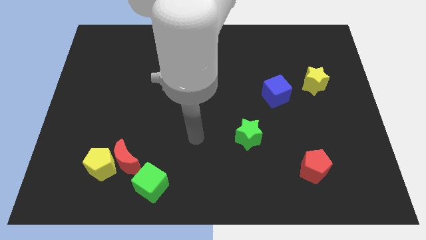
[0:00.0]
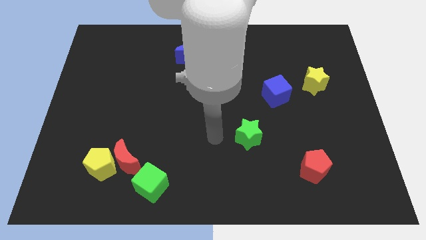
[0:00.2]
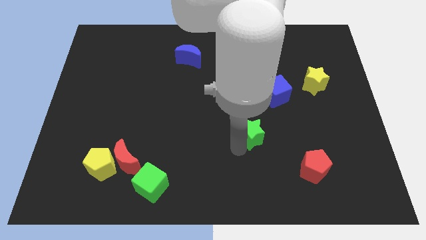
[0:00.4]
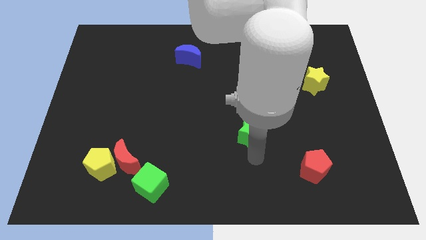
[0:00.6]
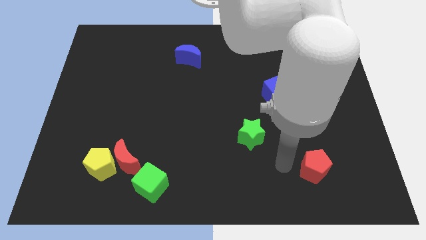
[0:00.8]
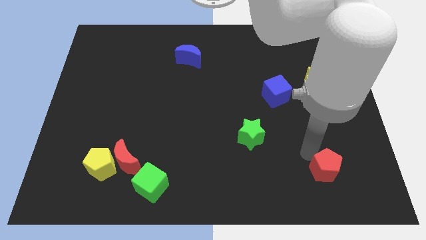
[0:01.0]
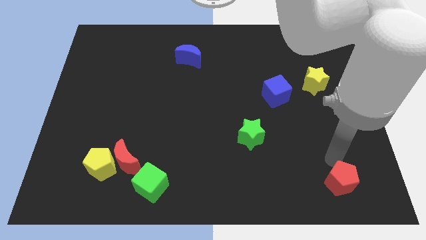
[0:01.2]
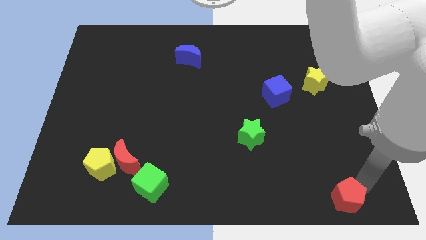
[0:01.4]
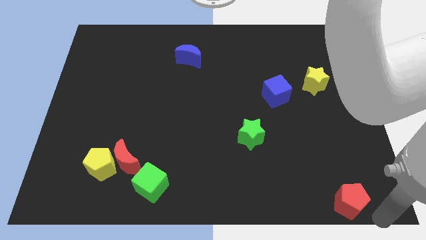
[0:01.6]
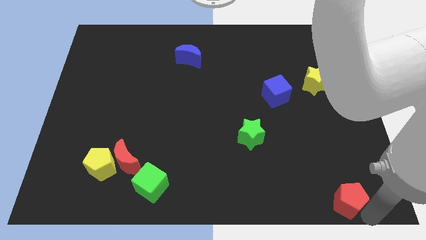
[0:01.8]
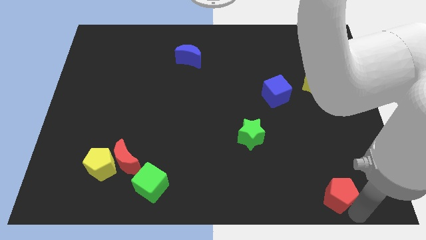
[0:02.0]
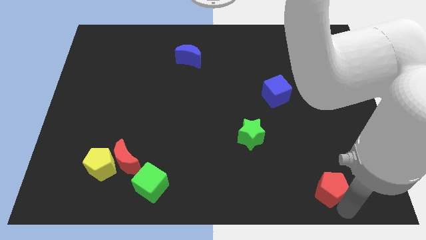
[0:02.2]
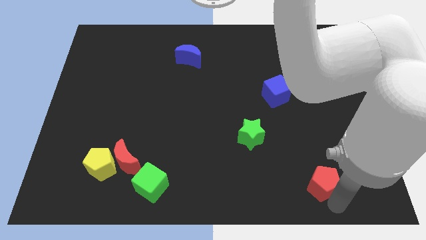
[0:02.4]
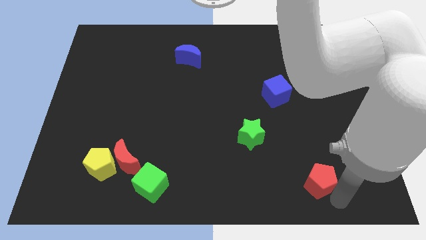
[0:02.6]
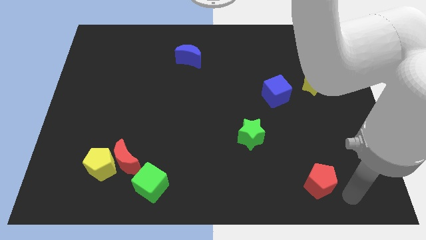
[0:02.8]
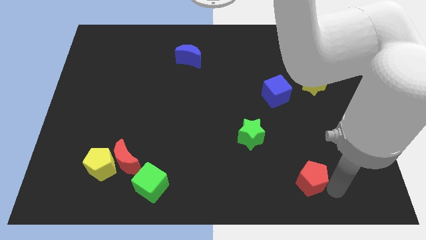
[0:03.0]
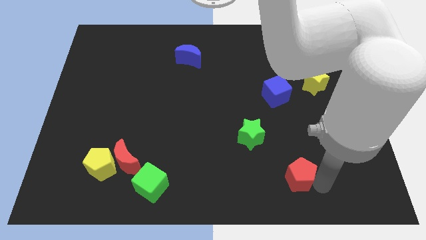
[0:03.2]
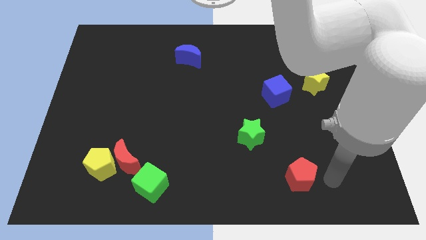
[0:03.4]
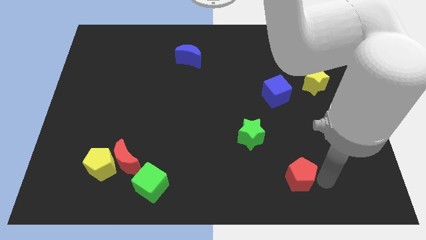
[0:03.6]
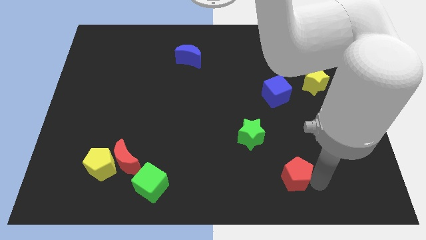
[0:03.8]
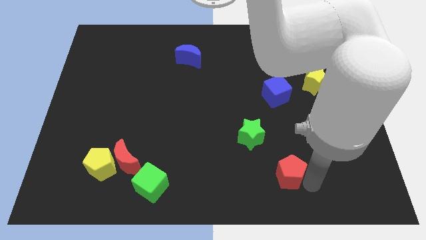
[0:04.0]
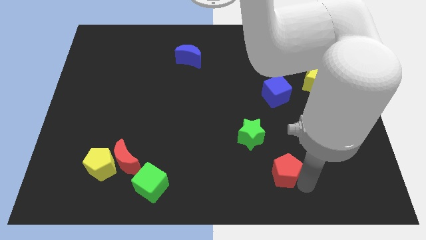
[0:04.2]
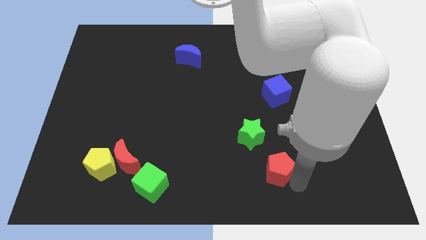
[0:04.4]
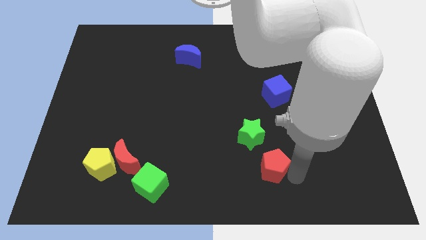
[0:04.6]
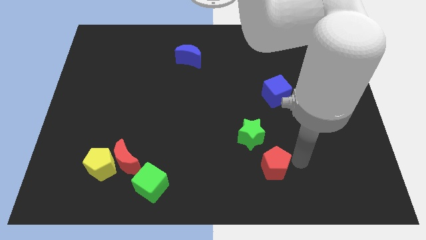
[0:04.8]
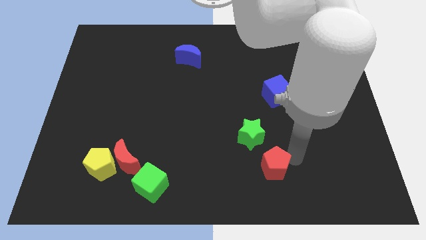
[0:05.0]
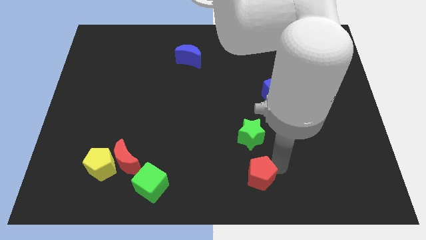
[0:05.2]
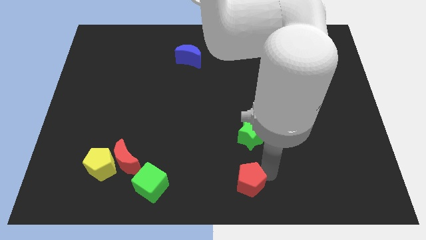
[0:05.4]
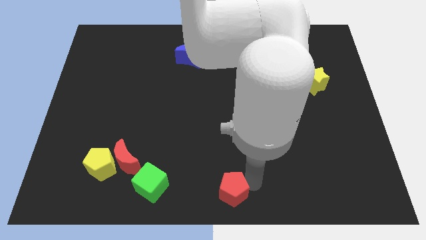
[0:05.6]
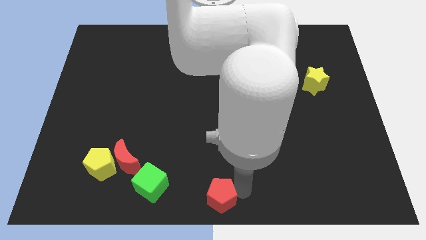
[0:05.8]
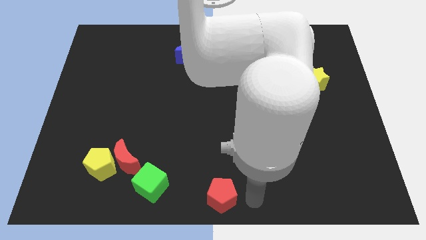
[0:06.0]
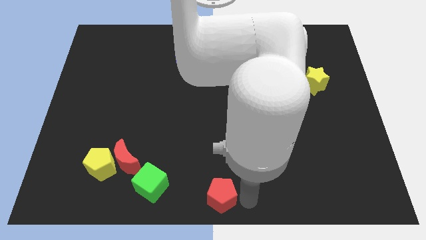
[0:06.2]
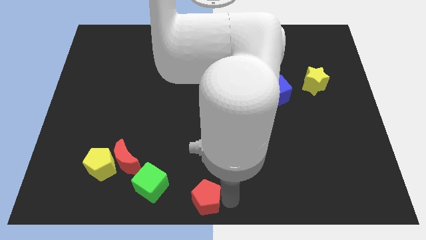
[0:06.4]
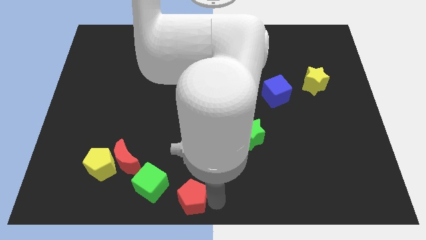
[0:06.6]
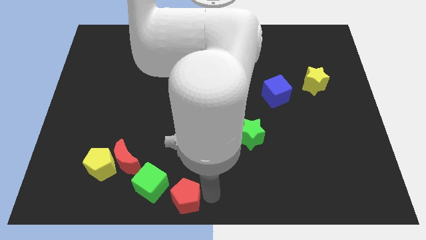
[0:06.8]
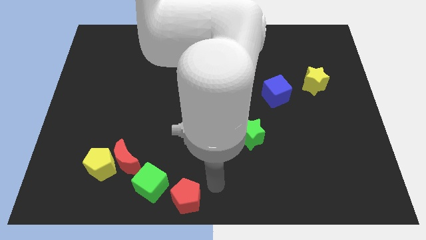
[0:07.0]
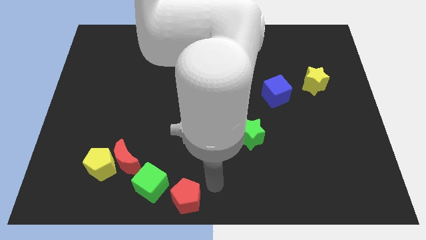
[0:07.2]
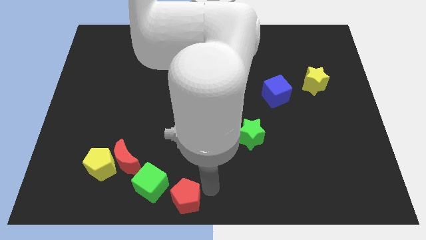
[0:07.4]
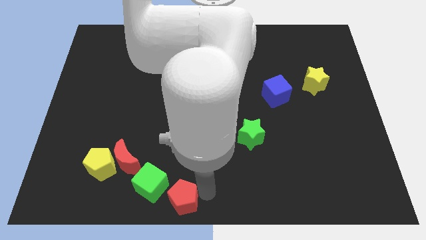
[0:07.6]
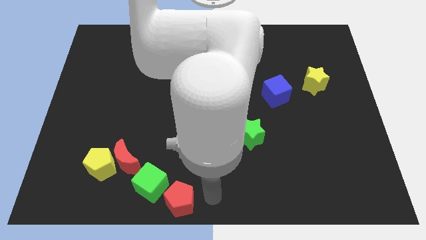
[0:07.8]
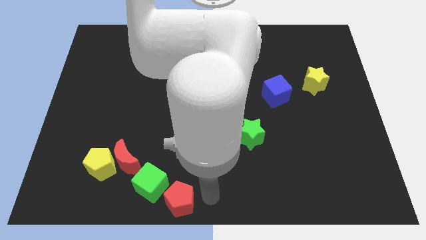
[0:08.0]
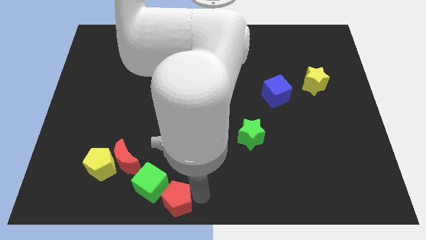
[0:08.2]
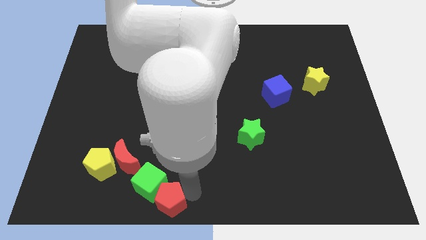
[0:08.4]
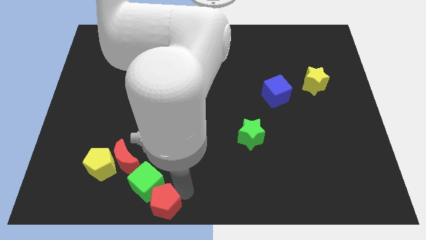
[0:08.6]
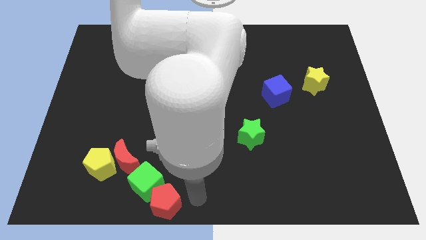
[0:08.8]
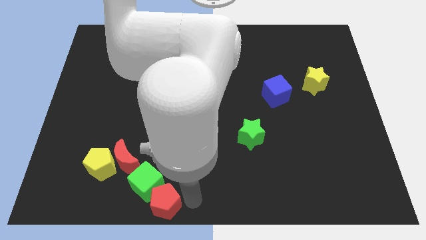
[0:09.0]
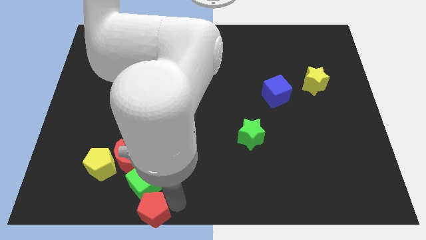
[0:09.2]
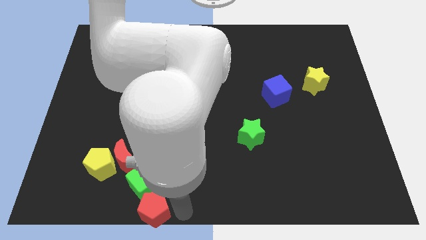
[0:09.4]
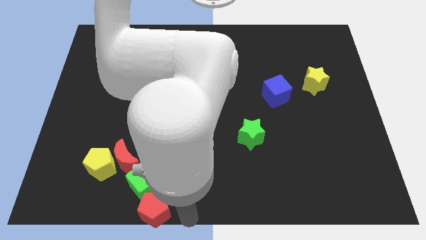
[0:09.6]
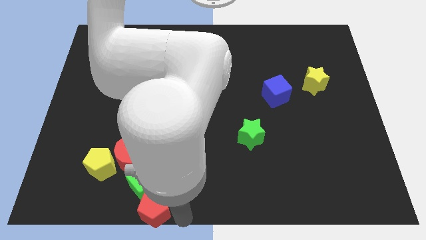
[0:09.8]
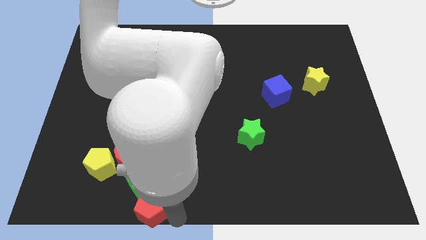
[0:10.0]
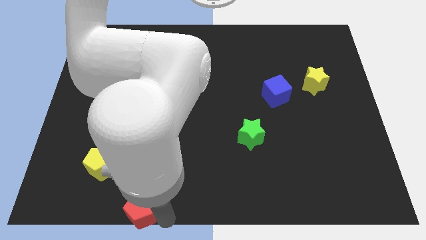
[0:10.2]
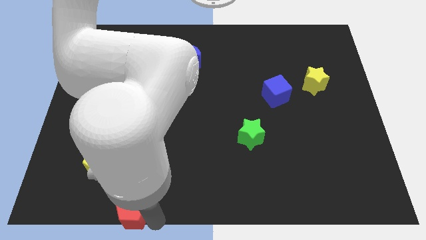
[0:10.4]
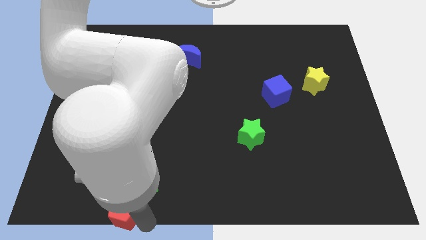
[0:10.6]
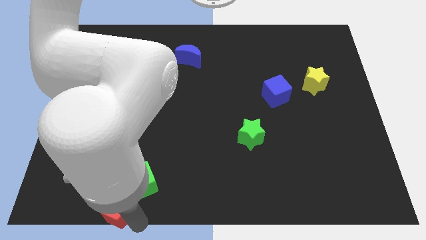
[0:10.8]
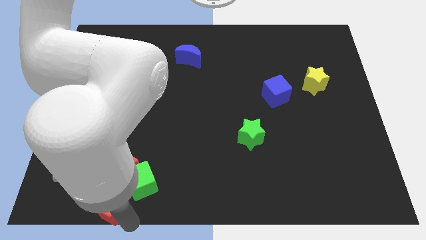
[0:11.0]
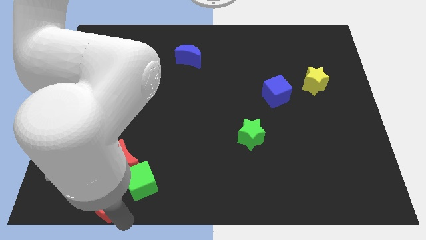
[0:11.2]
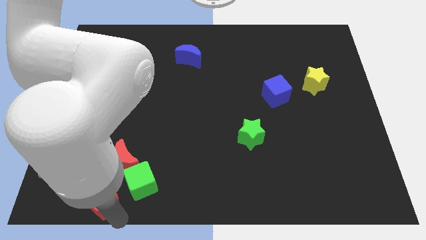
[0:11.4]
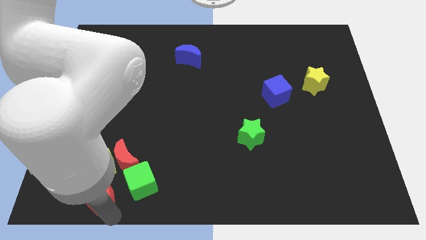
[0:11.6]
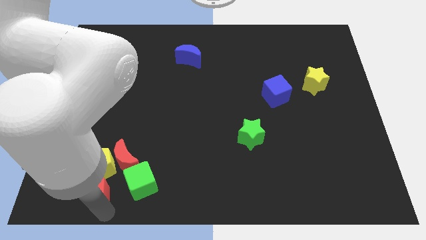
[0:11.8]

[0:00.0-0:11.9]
move the red pentagon towards the yellow pentagon

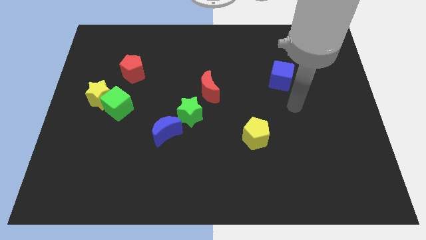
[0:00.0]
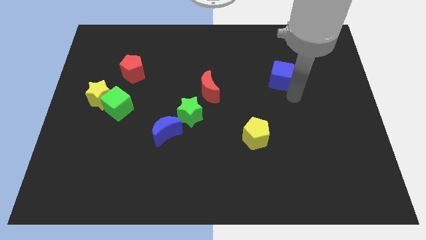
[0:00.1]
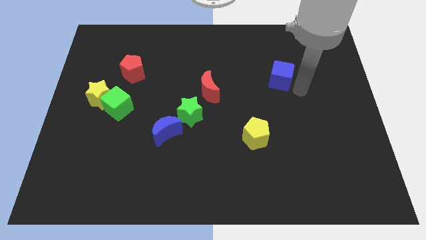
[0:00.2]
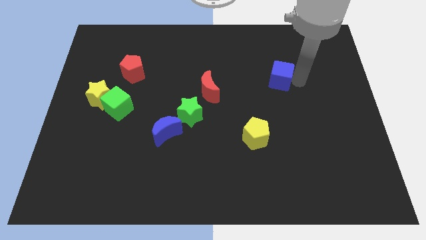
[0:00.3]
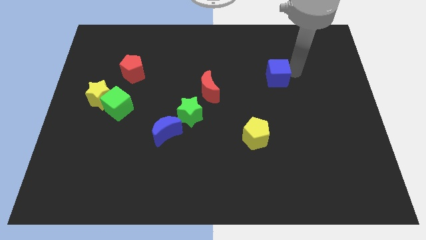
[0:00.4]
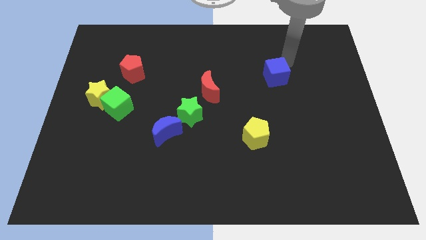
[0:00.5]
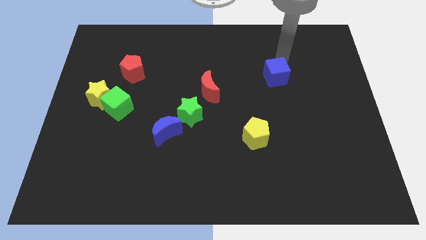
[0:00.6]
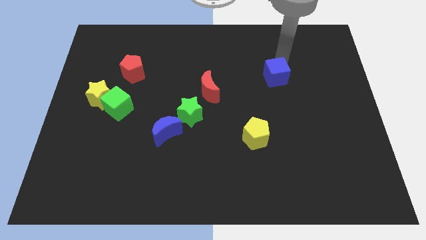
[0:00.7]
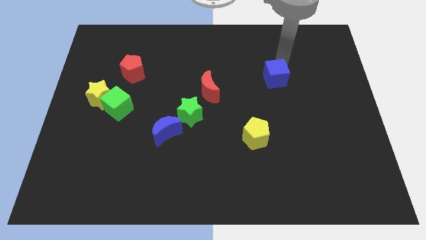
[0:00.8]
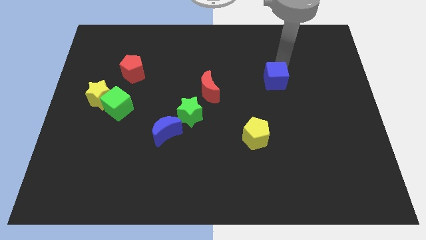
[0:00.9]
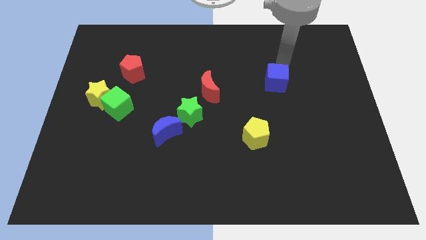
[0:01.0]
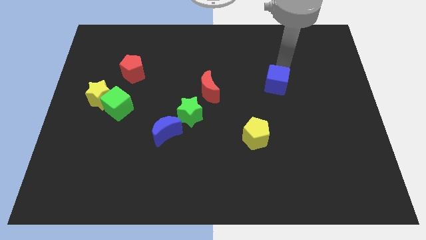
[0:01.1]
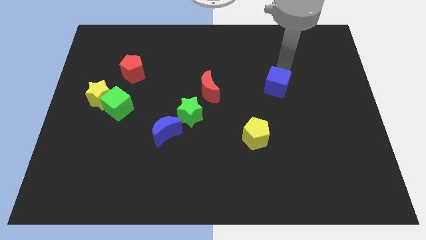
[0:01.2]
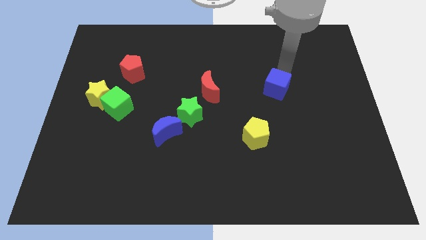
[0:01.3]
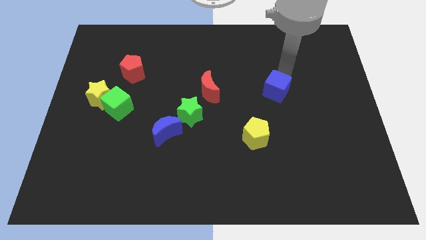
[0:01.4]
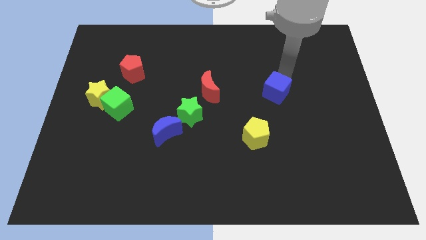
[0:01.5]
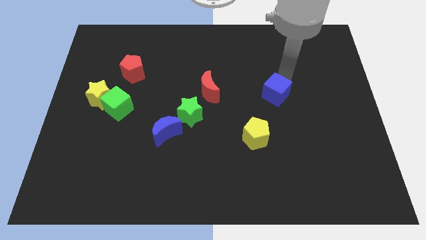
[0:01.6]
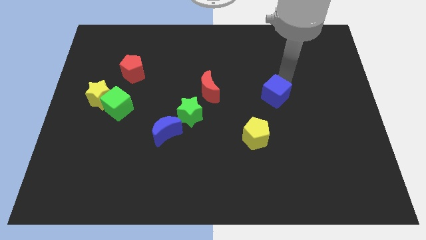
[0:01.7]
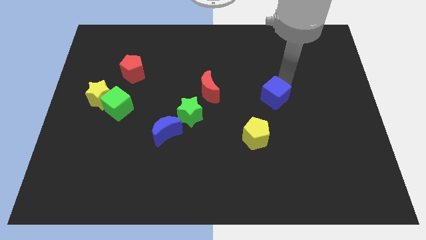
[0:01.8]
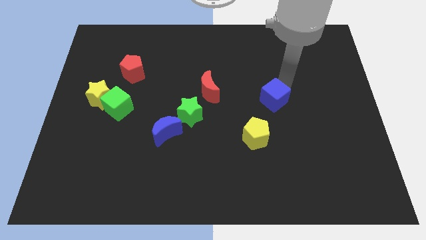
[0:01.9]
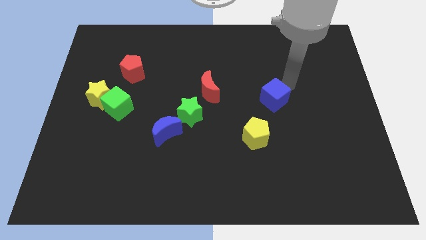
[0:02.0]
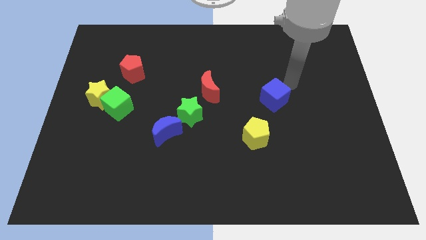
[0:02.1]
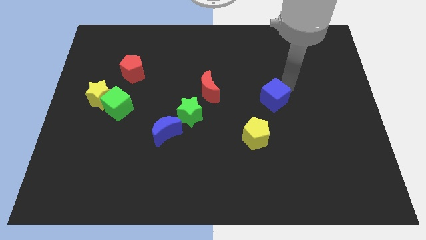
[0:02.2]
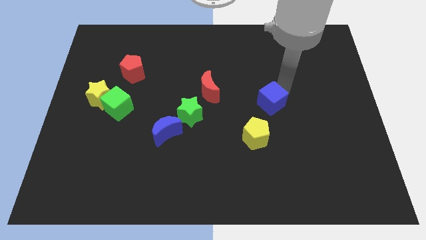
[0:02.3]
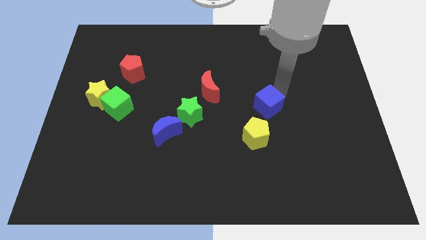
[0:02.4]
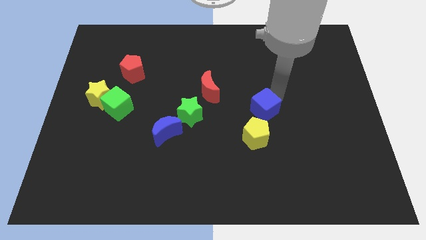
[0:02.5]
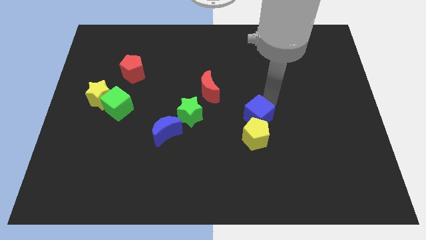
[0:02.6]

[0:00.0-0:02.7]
put the blue cube to the yellow pentagon

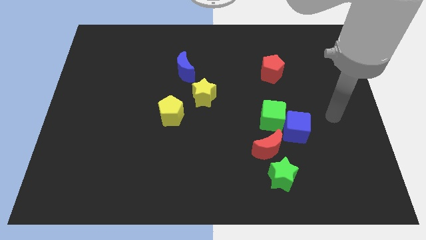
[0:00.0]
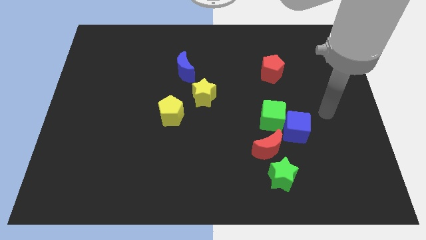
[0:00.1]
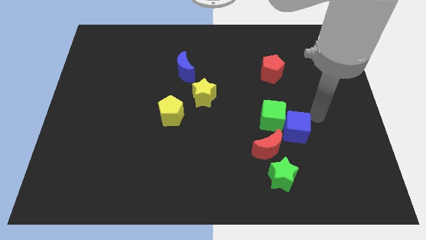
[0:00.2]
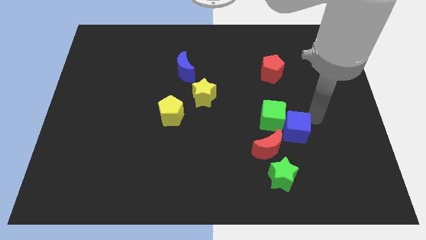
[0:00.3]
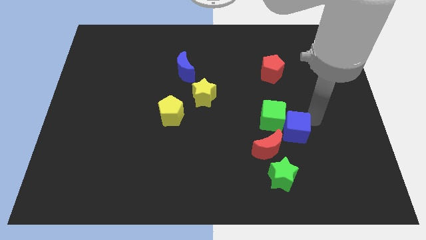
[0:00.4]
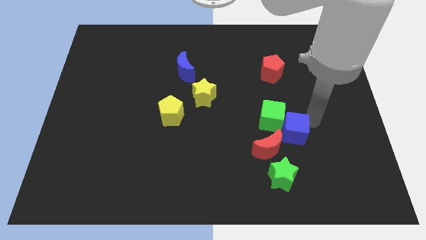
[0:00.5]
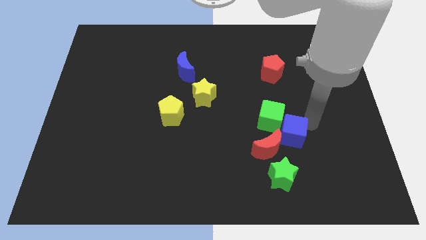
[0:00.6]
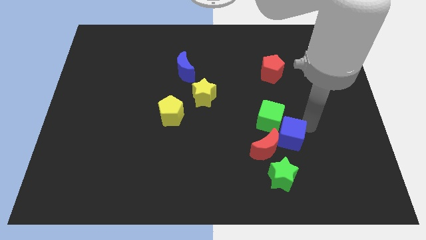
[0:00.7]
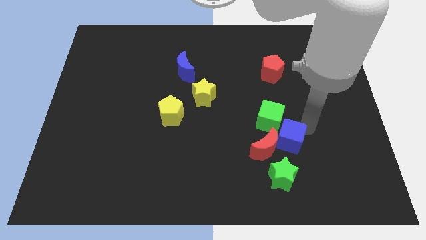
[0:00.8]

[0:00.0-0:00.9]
push the blue cube to the red moon
